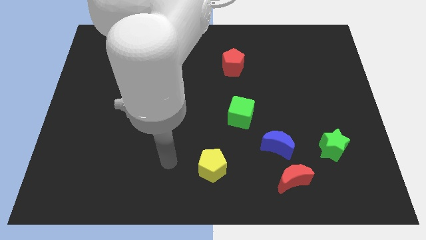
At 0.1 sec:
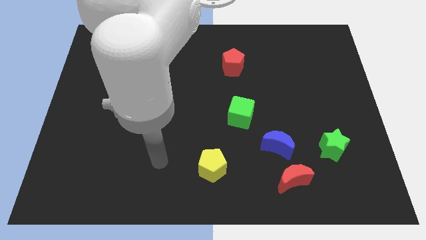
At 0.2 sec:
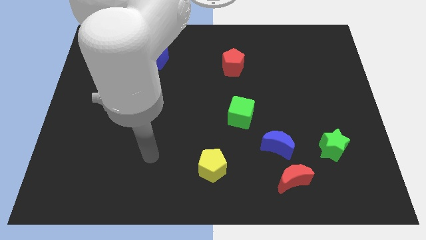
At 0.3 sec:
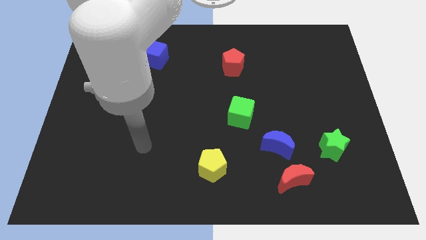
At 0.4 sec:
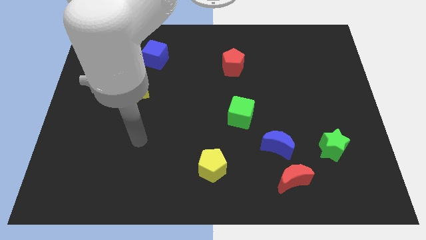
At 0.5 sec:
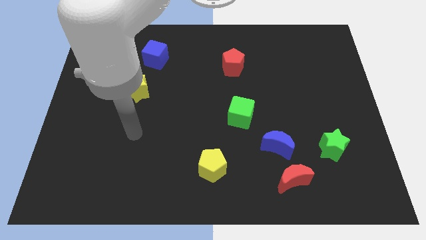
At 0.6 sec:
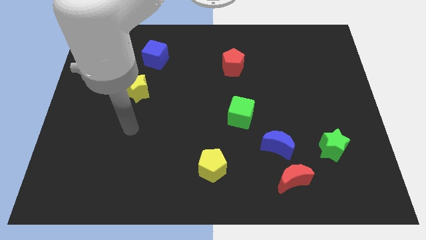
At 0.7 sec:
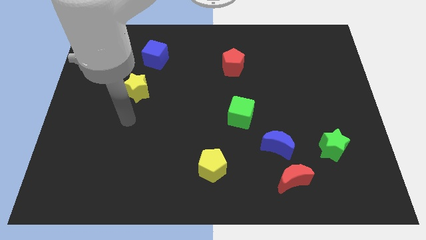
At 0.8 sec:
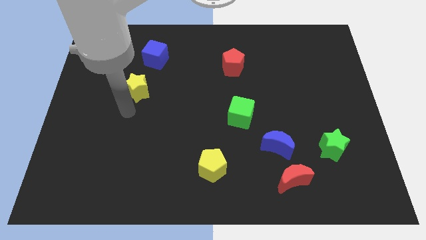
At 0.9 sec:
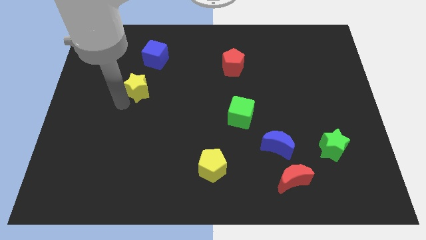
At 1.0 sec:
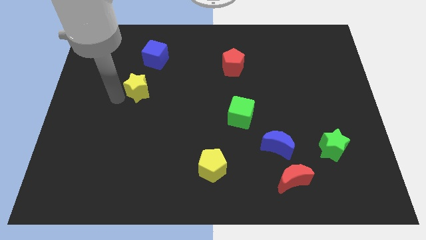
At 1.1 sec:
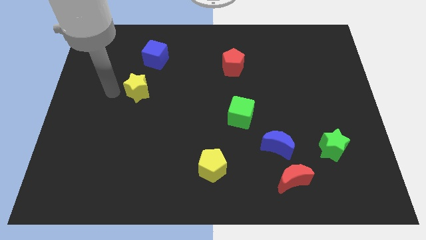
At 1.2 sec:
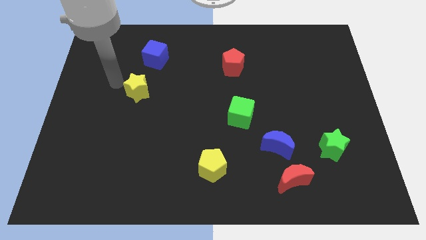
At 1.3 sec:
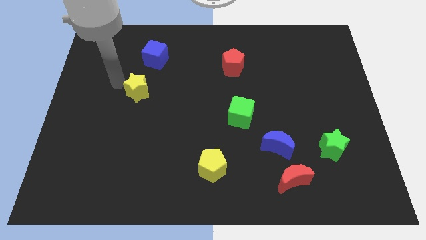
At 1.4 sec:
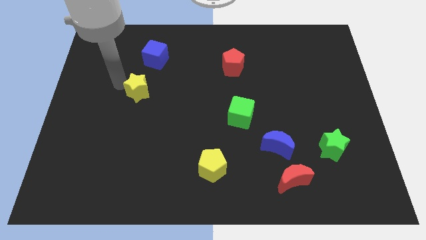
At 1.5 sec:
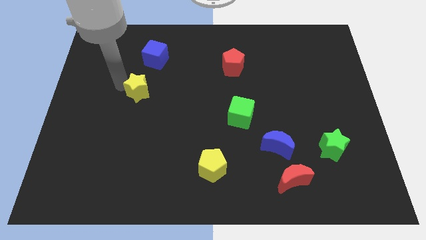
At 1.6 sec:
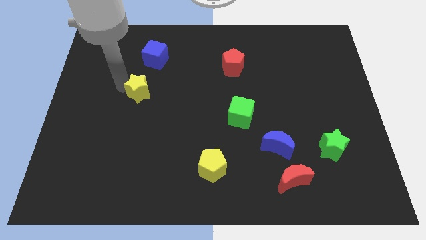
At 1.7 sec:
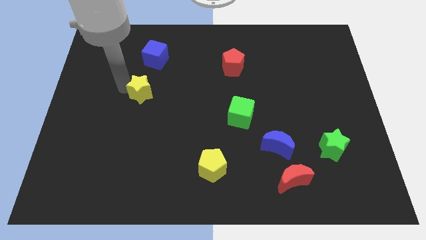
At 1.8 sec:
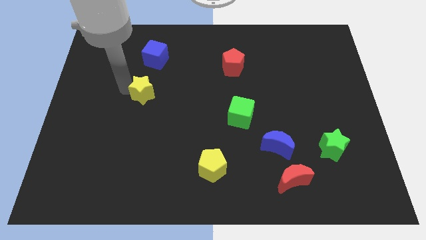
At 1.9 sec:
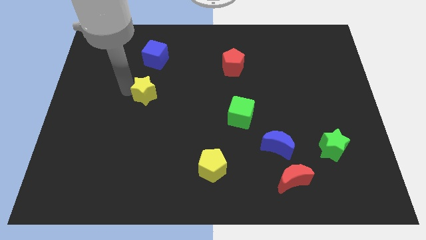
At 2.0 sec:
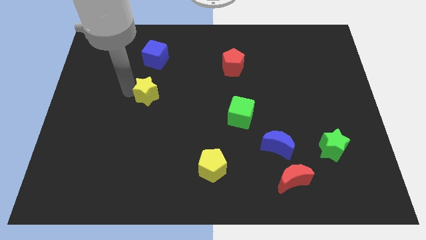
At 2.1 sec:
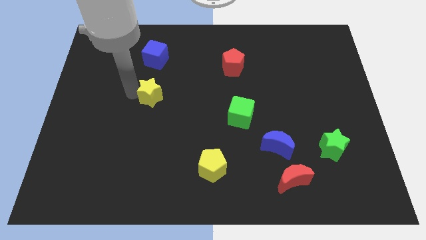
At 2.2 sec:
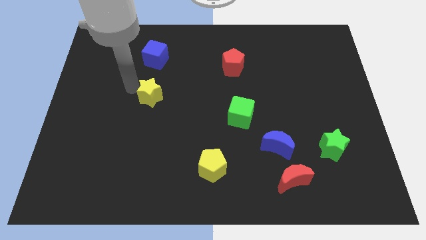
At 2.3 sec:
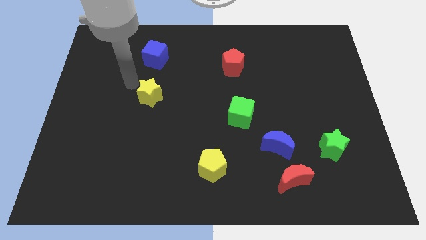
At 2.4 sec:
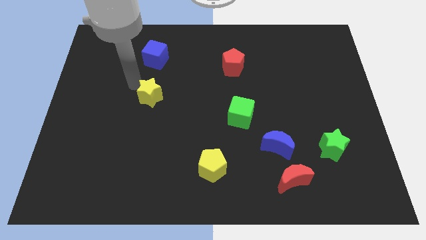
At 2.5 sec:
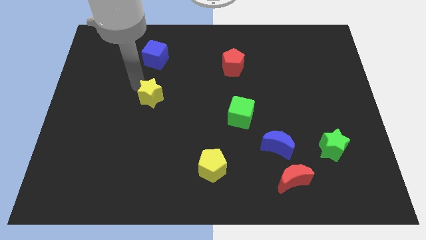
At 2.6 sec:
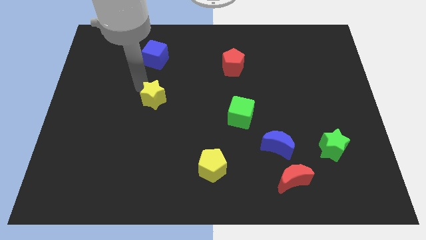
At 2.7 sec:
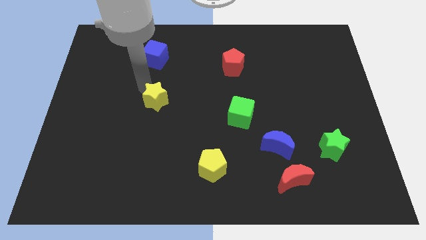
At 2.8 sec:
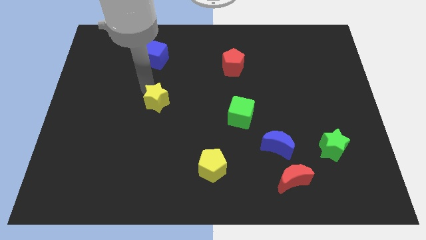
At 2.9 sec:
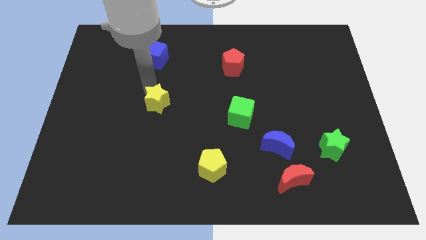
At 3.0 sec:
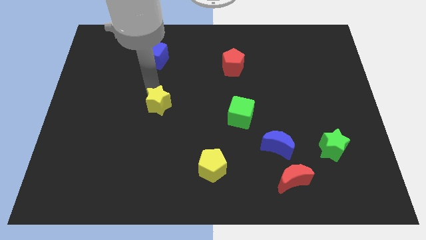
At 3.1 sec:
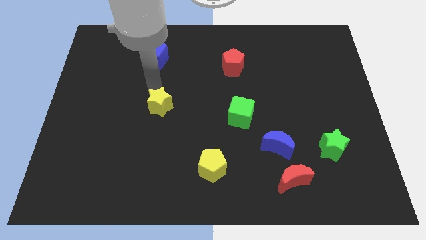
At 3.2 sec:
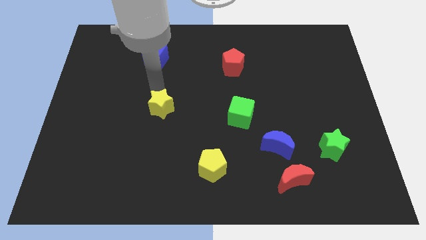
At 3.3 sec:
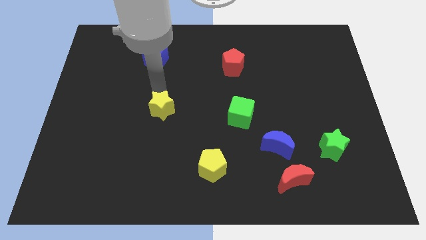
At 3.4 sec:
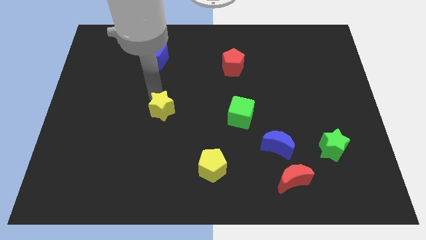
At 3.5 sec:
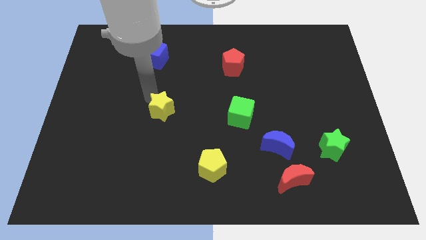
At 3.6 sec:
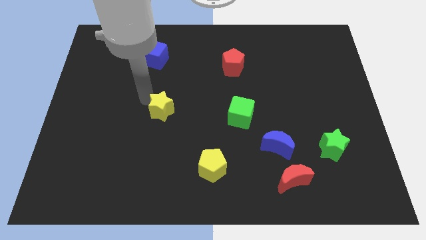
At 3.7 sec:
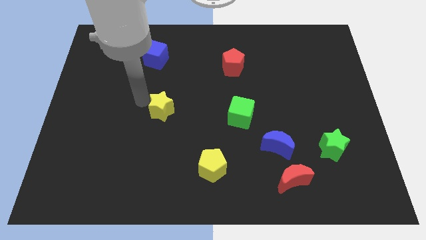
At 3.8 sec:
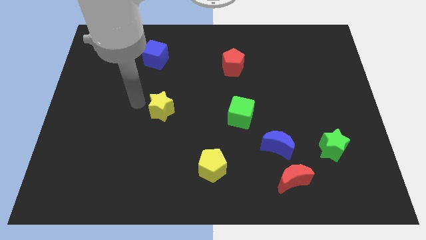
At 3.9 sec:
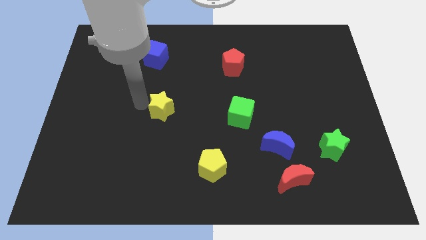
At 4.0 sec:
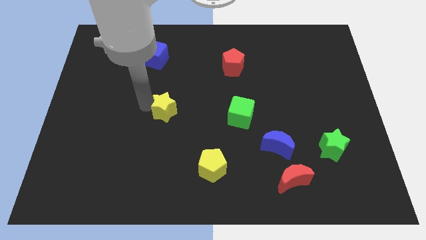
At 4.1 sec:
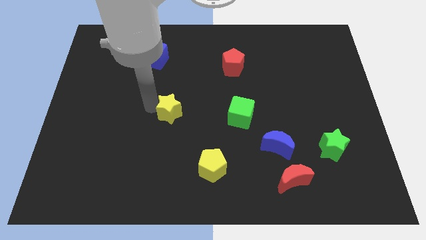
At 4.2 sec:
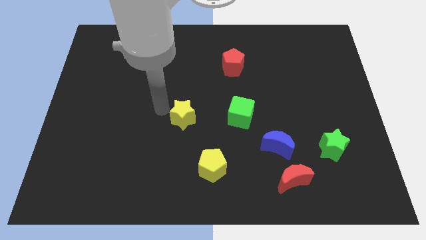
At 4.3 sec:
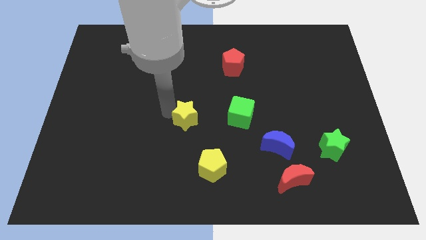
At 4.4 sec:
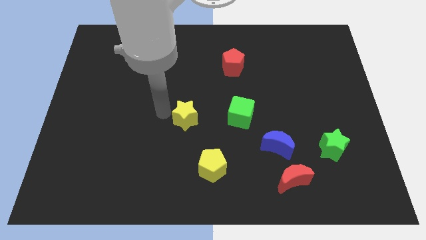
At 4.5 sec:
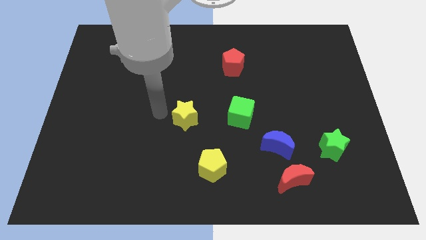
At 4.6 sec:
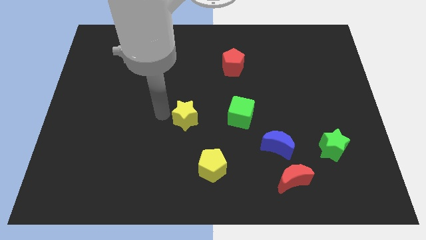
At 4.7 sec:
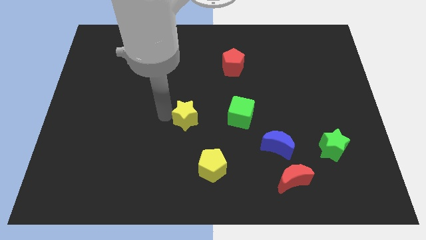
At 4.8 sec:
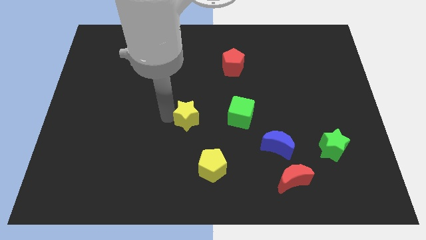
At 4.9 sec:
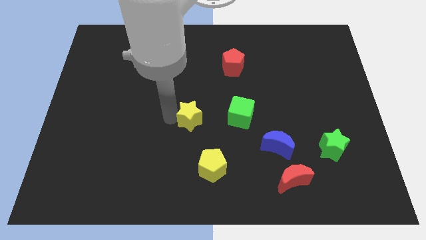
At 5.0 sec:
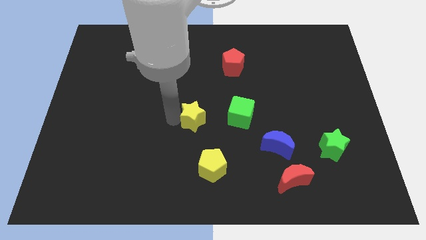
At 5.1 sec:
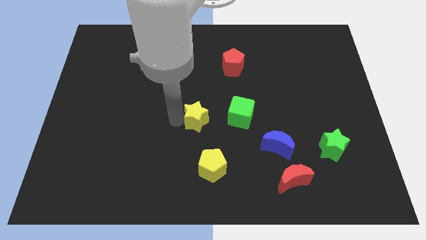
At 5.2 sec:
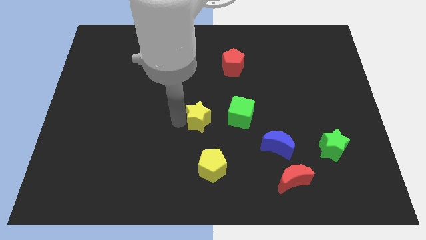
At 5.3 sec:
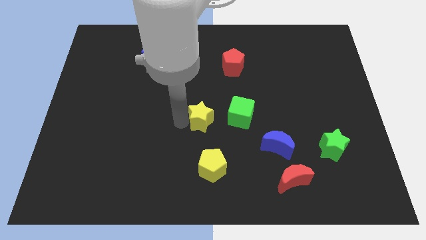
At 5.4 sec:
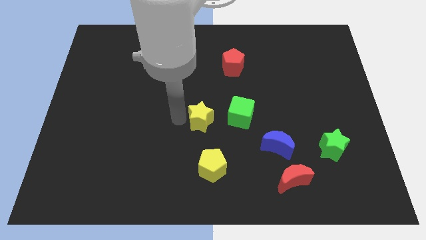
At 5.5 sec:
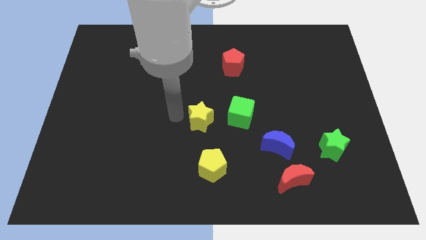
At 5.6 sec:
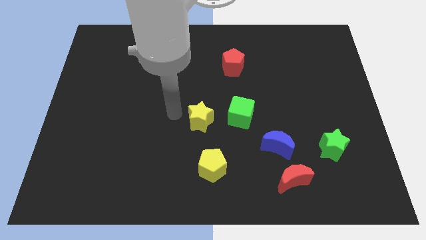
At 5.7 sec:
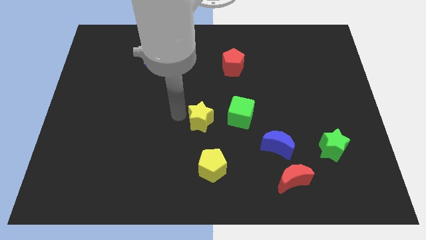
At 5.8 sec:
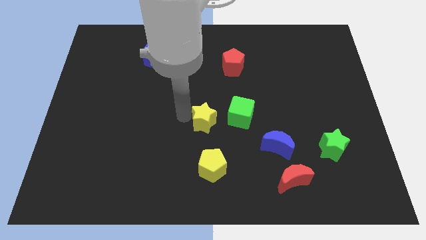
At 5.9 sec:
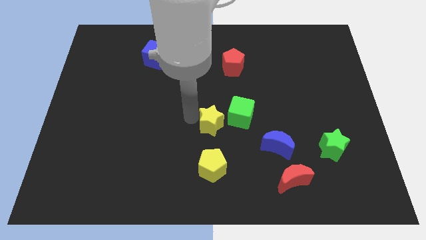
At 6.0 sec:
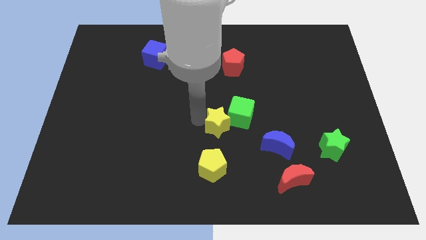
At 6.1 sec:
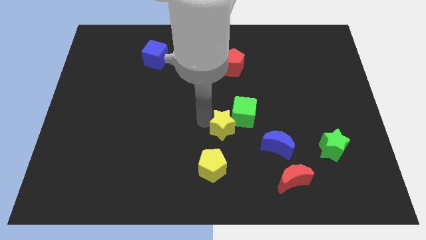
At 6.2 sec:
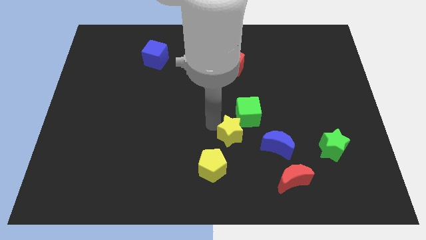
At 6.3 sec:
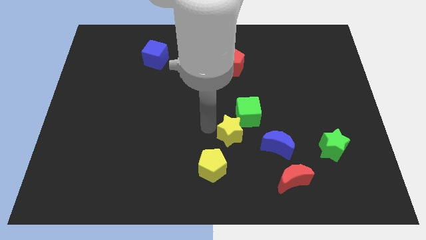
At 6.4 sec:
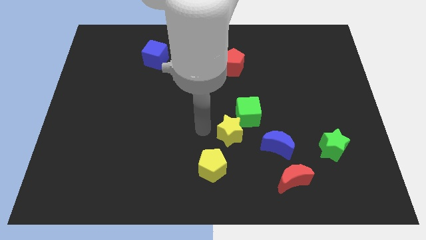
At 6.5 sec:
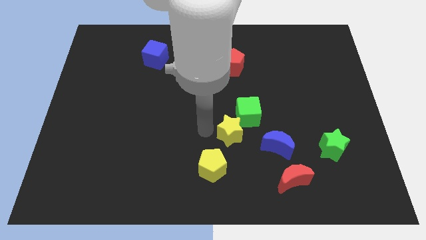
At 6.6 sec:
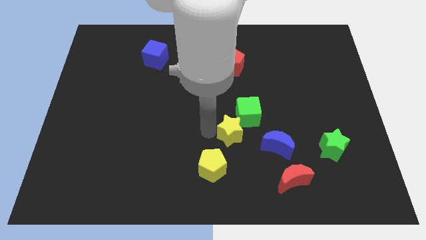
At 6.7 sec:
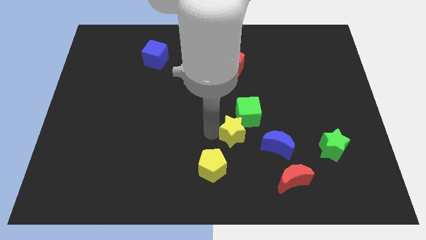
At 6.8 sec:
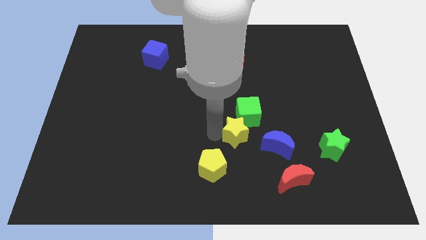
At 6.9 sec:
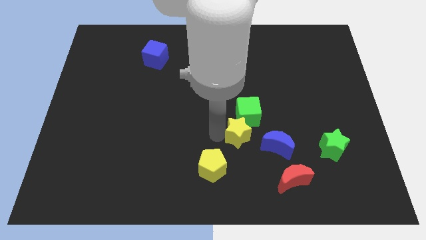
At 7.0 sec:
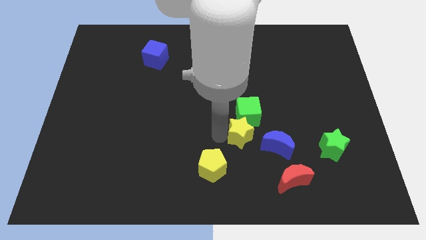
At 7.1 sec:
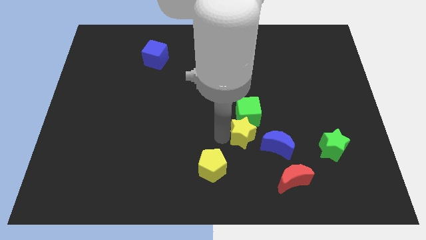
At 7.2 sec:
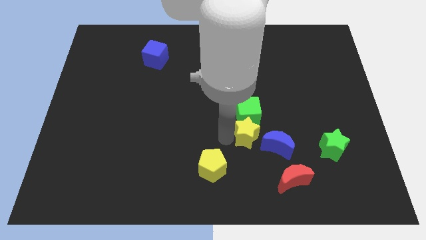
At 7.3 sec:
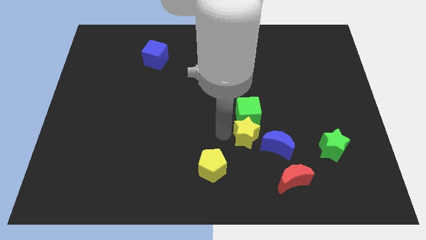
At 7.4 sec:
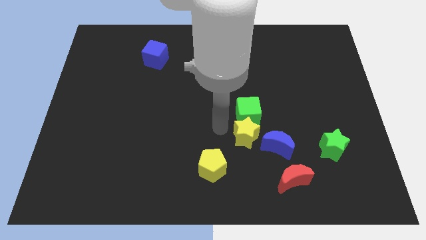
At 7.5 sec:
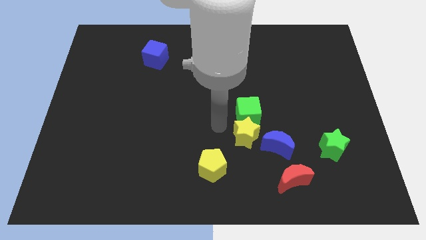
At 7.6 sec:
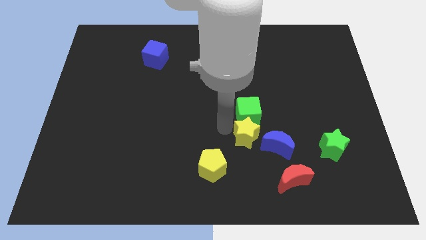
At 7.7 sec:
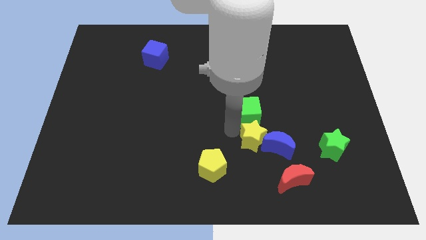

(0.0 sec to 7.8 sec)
put the yellow star close to the blue moon
